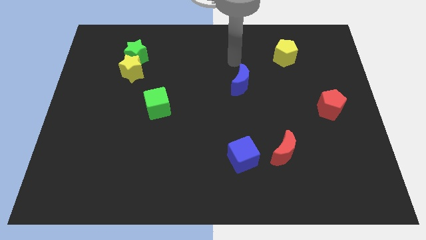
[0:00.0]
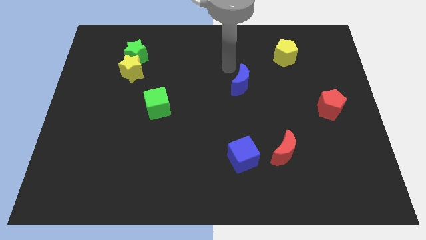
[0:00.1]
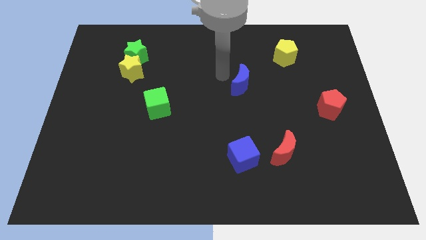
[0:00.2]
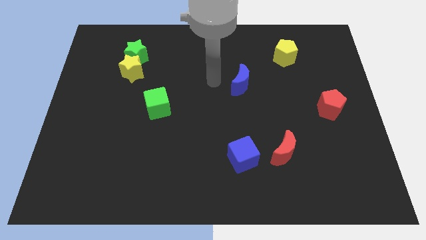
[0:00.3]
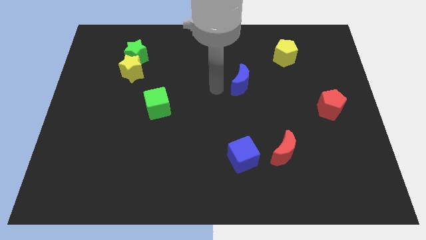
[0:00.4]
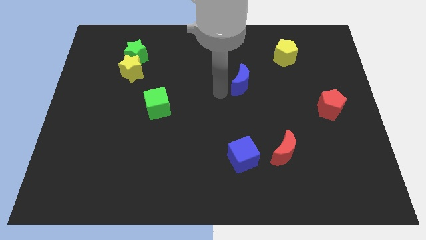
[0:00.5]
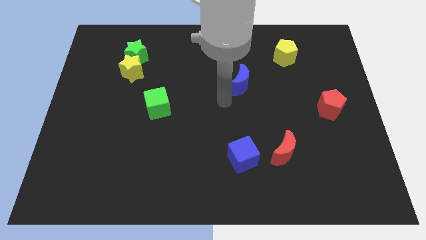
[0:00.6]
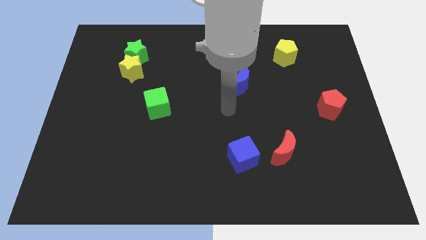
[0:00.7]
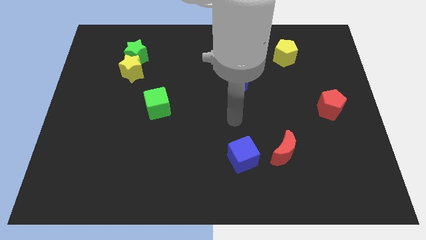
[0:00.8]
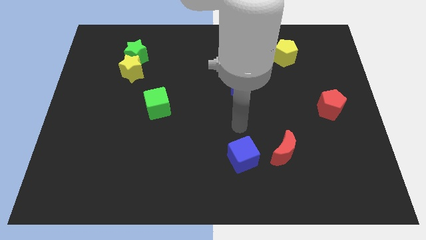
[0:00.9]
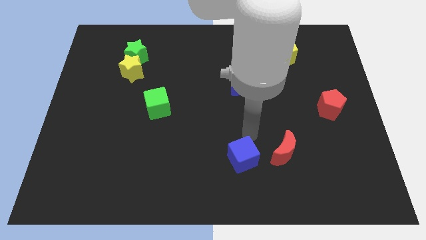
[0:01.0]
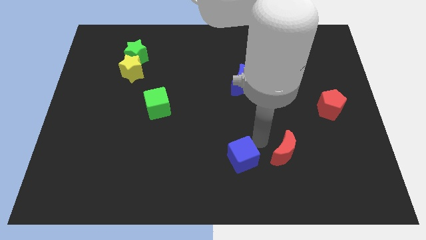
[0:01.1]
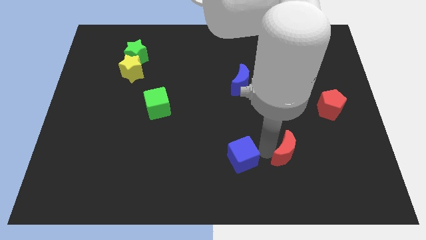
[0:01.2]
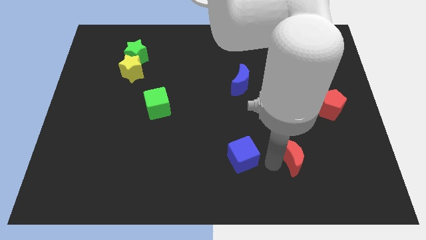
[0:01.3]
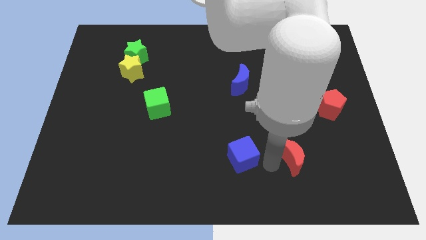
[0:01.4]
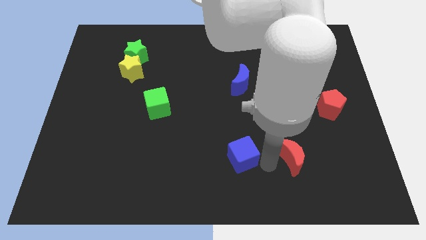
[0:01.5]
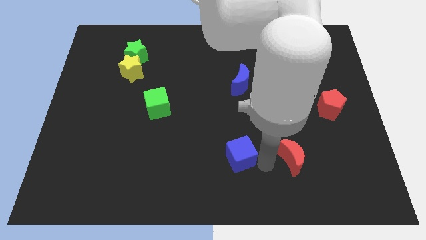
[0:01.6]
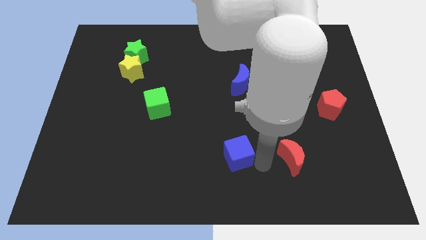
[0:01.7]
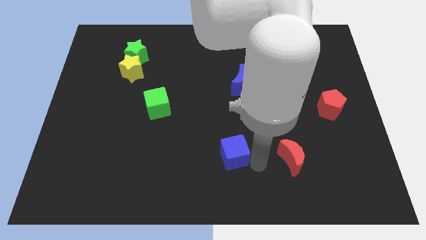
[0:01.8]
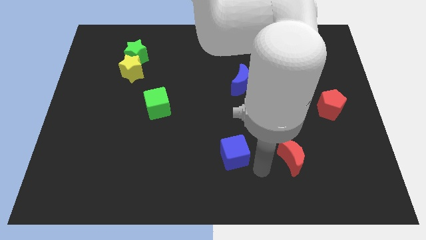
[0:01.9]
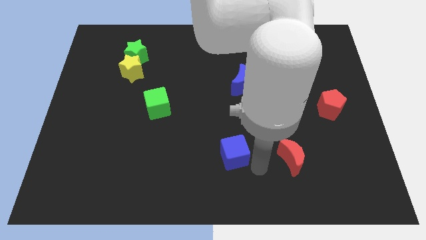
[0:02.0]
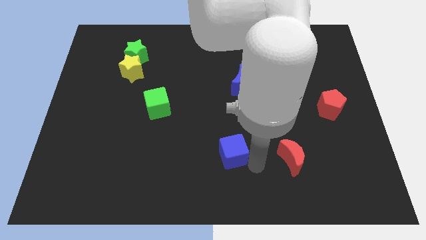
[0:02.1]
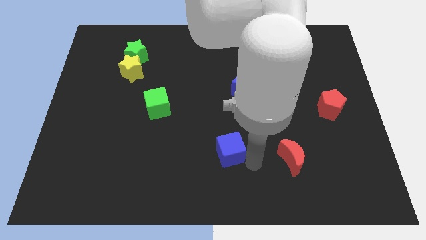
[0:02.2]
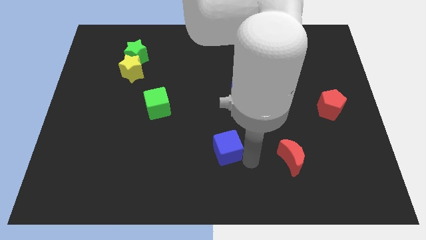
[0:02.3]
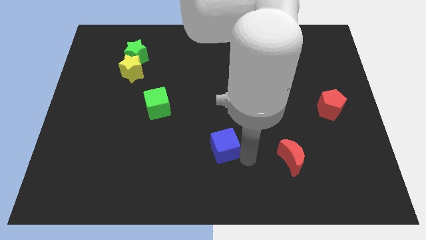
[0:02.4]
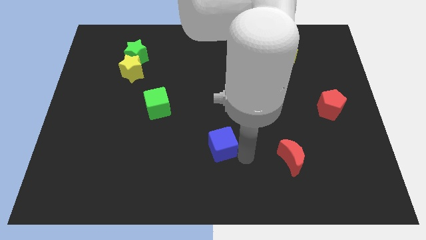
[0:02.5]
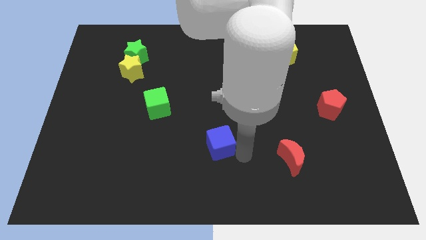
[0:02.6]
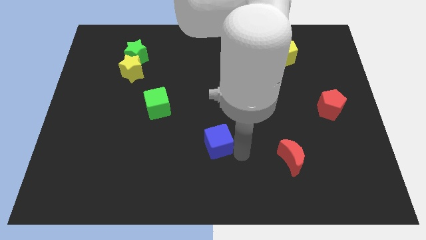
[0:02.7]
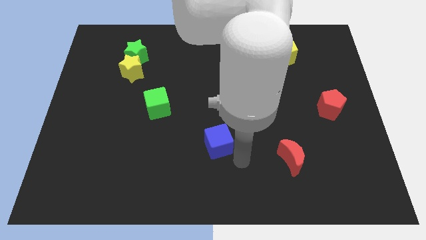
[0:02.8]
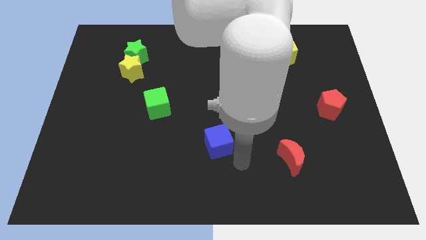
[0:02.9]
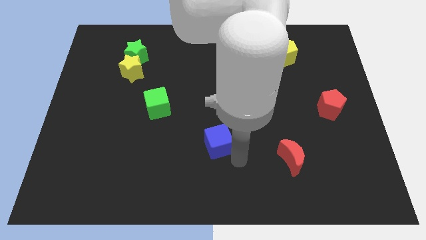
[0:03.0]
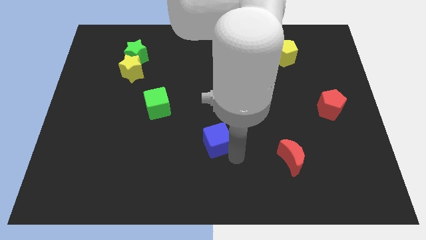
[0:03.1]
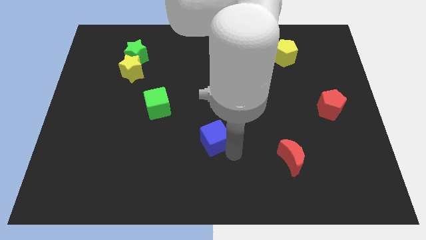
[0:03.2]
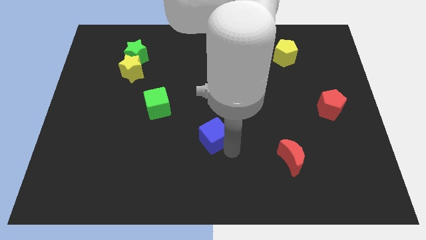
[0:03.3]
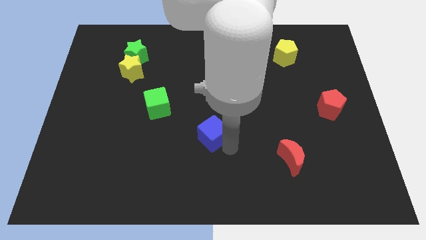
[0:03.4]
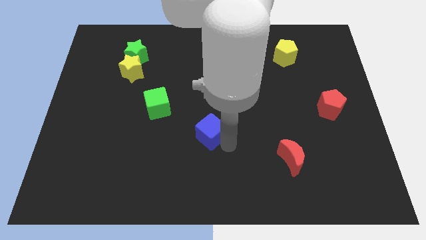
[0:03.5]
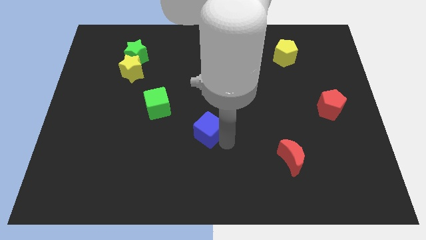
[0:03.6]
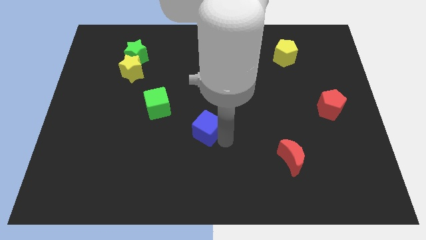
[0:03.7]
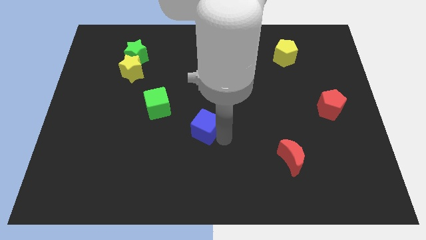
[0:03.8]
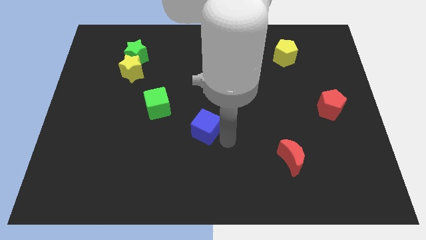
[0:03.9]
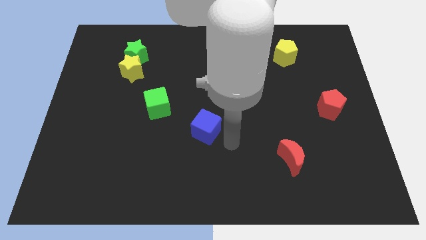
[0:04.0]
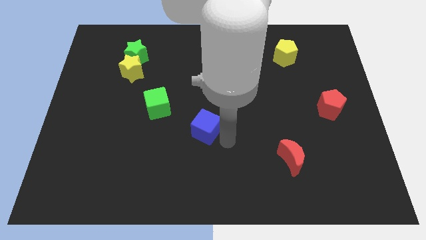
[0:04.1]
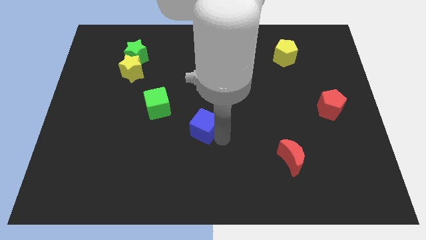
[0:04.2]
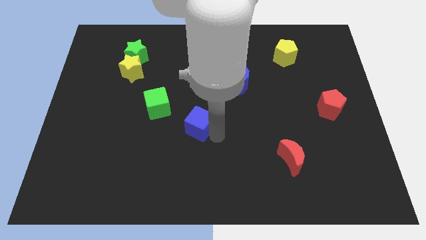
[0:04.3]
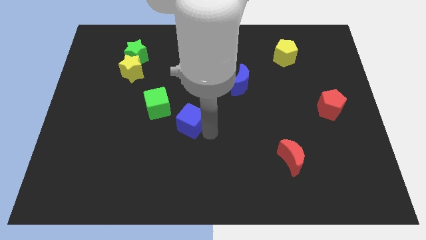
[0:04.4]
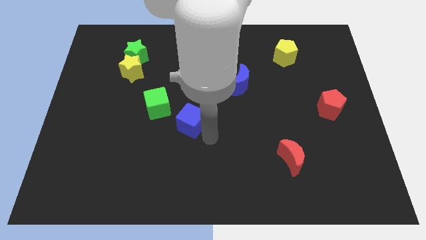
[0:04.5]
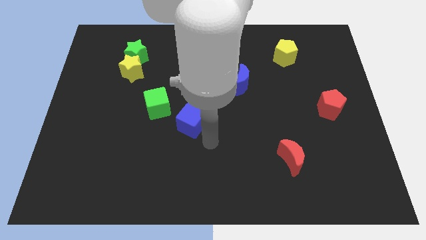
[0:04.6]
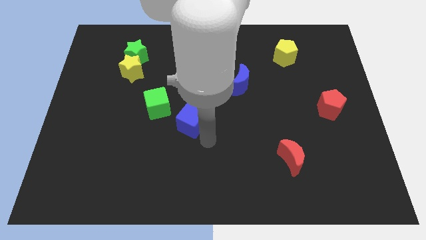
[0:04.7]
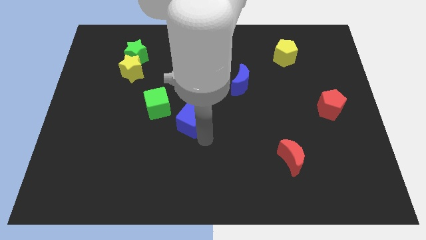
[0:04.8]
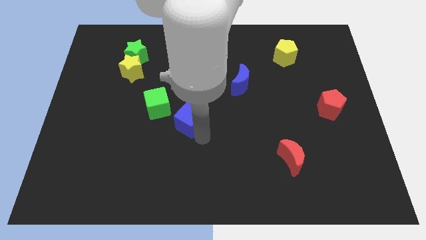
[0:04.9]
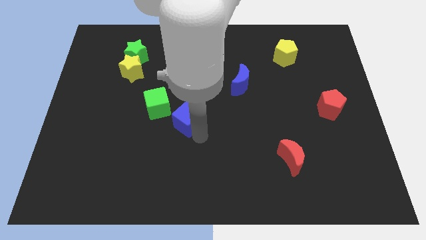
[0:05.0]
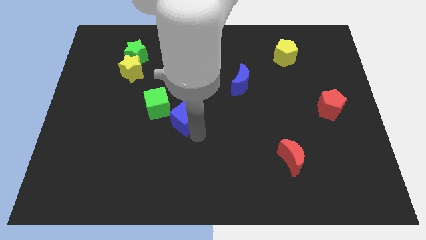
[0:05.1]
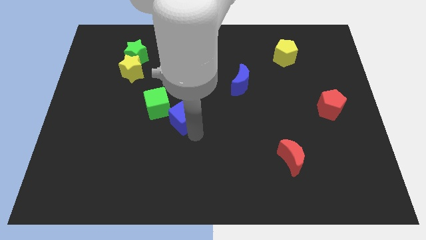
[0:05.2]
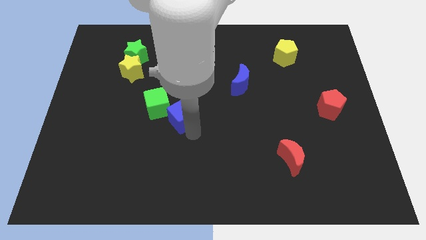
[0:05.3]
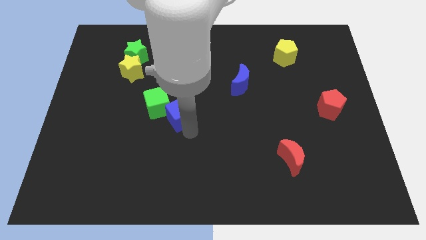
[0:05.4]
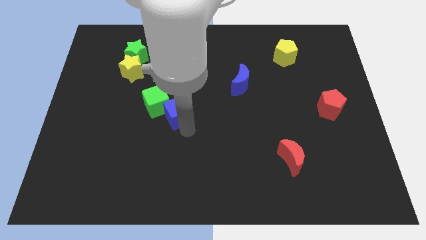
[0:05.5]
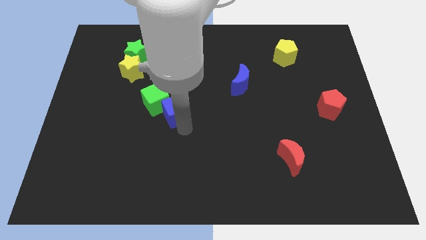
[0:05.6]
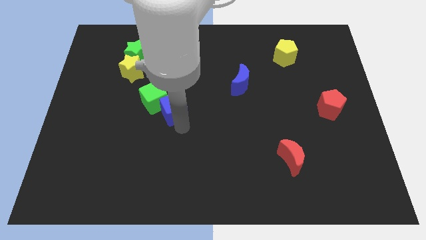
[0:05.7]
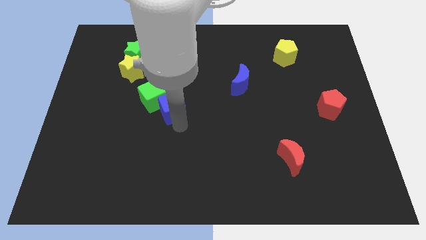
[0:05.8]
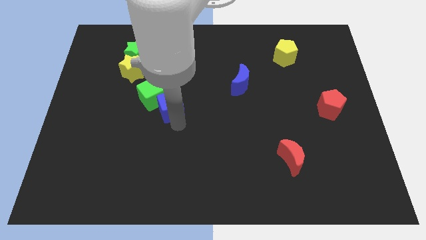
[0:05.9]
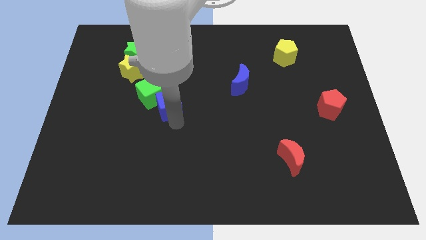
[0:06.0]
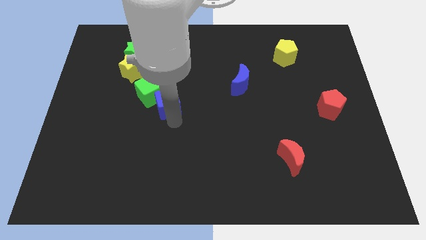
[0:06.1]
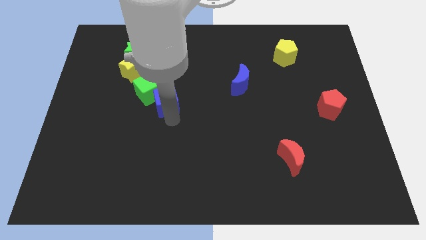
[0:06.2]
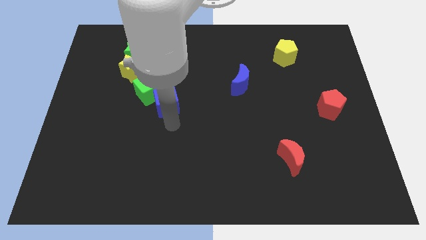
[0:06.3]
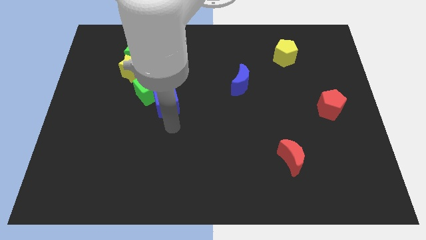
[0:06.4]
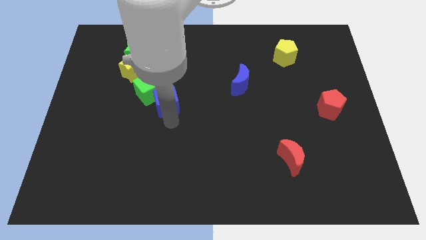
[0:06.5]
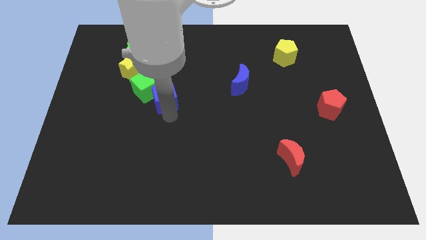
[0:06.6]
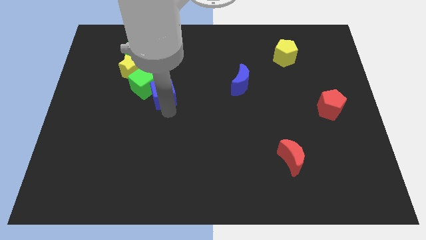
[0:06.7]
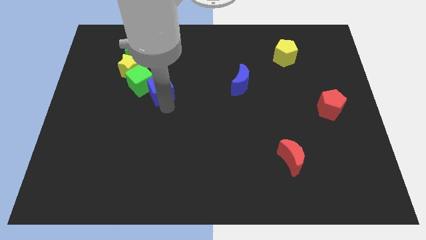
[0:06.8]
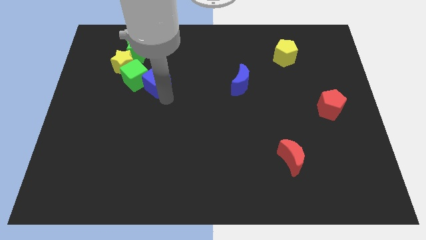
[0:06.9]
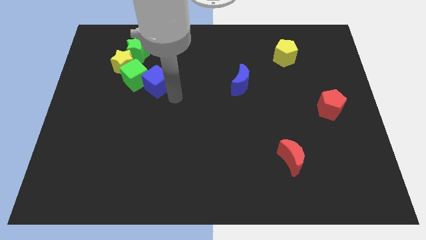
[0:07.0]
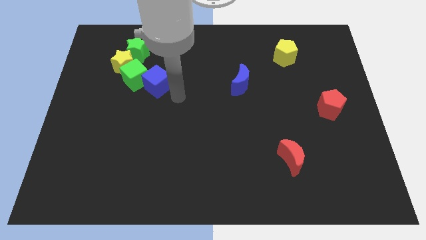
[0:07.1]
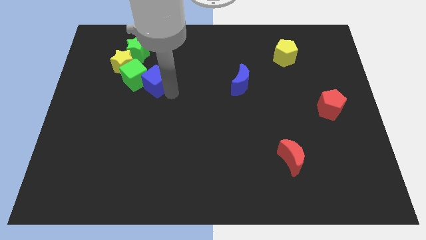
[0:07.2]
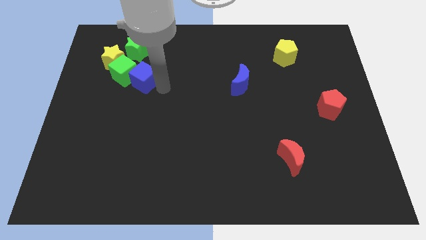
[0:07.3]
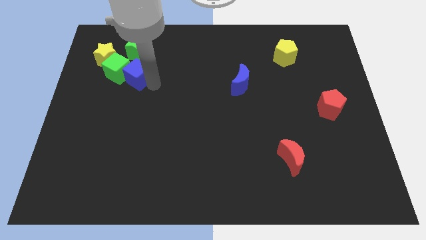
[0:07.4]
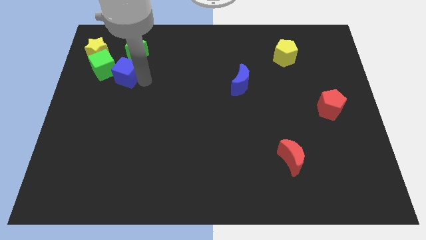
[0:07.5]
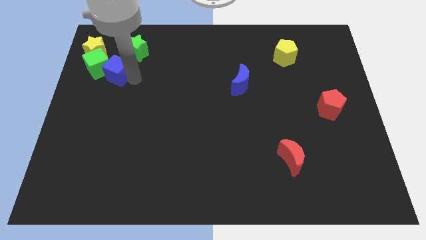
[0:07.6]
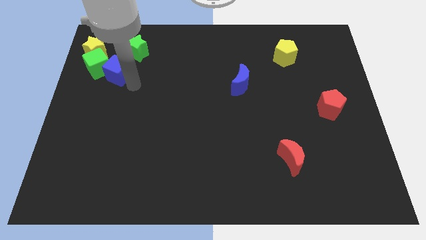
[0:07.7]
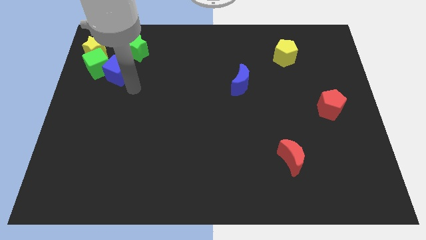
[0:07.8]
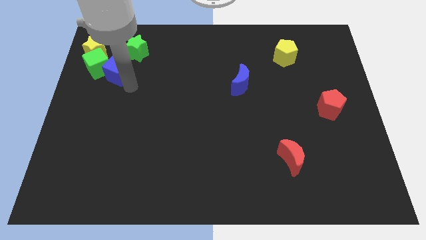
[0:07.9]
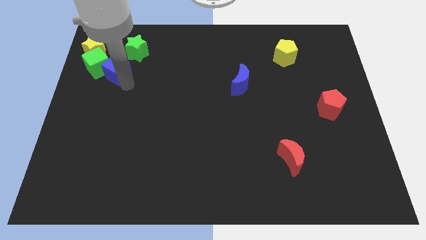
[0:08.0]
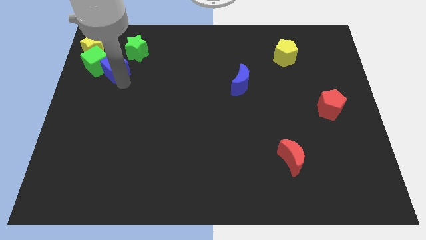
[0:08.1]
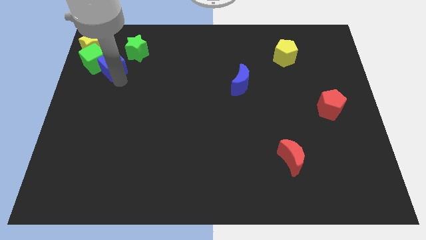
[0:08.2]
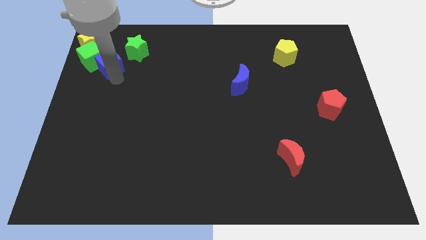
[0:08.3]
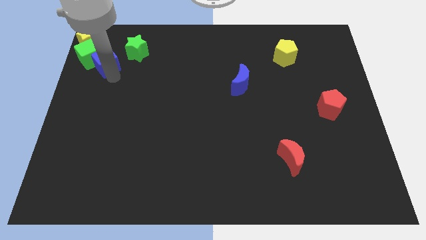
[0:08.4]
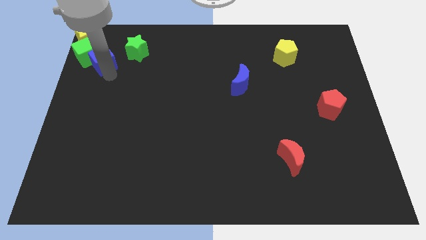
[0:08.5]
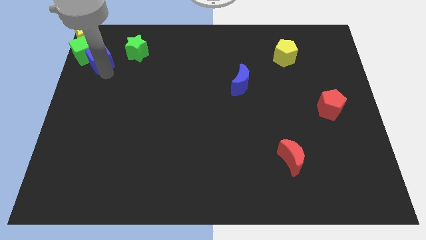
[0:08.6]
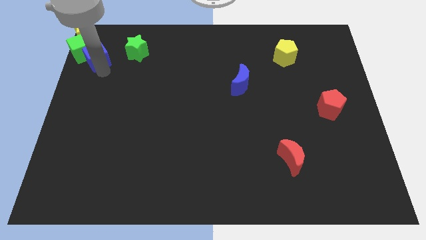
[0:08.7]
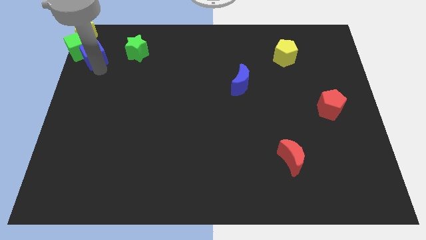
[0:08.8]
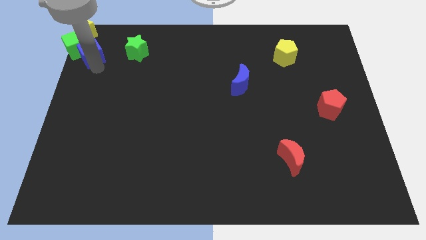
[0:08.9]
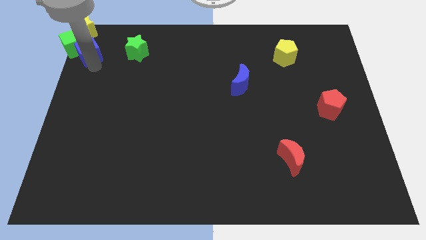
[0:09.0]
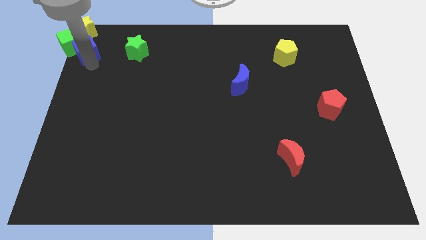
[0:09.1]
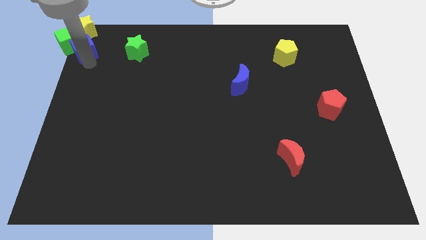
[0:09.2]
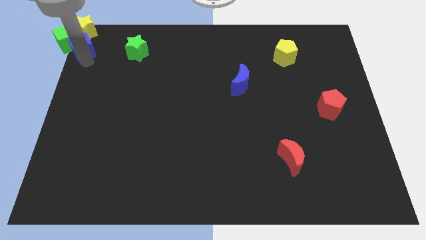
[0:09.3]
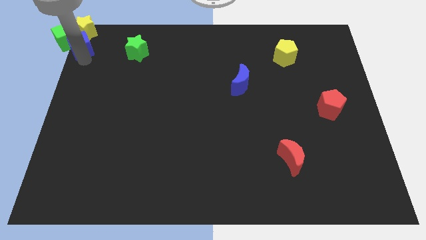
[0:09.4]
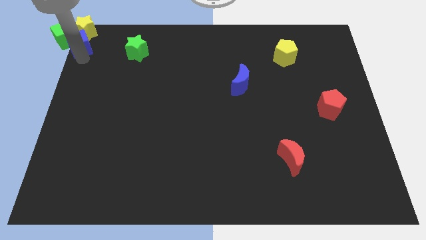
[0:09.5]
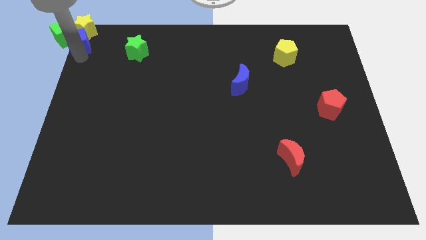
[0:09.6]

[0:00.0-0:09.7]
move the blue cube towards the yellow star
